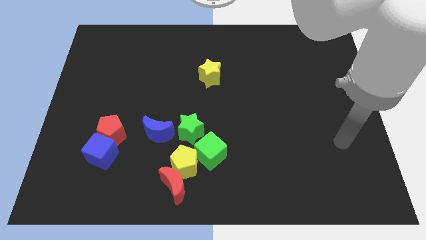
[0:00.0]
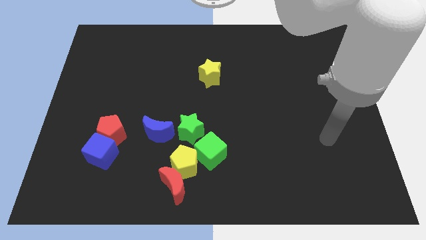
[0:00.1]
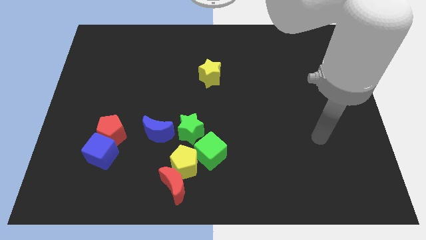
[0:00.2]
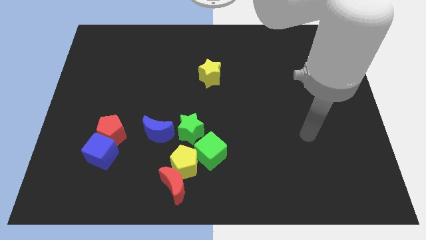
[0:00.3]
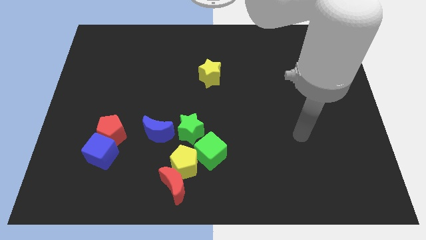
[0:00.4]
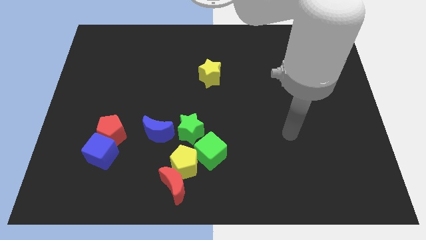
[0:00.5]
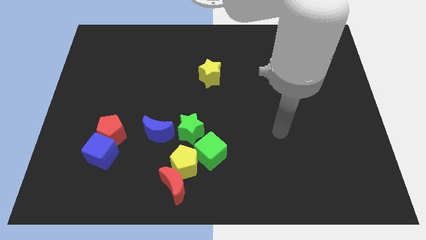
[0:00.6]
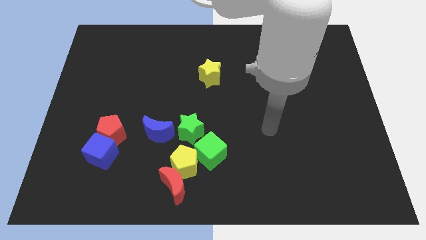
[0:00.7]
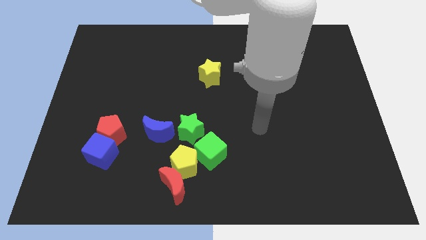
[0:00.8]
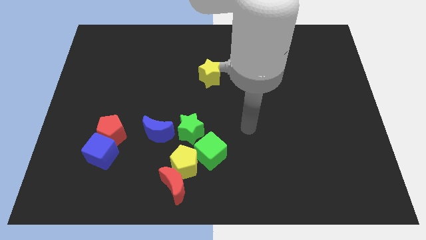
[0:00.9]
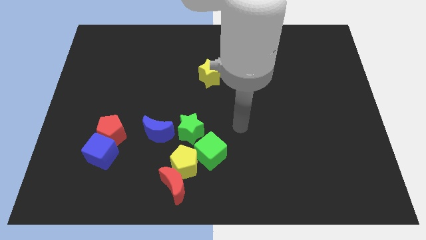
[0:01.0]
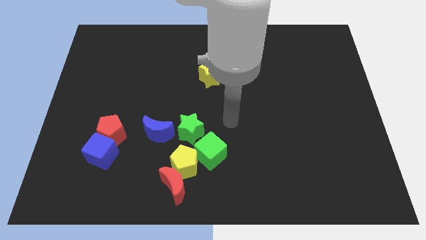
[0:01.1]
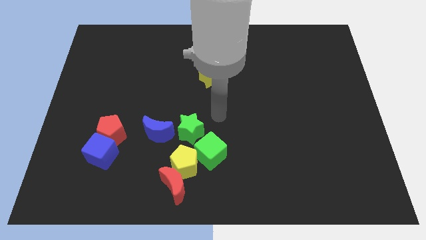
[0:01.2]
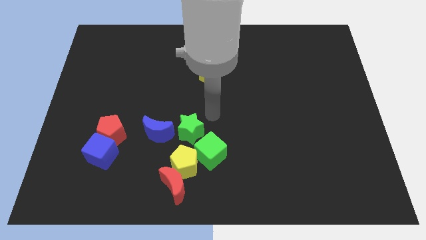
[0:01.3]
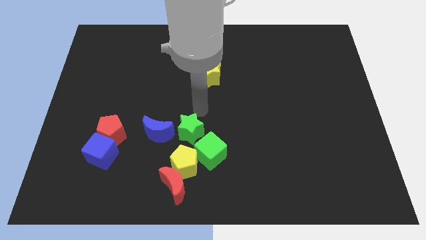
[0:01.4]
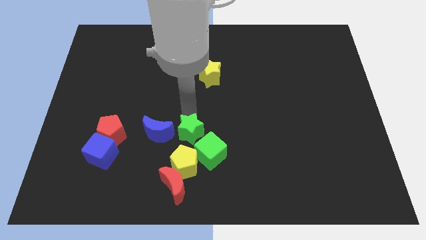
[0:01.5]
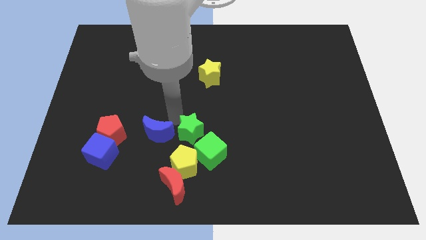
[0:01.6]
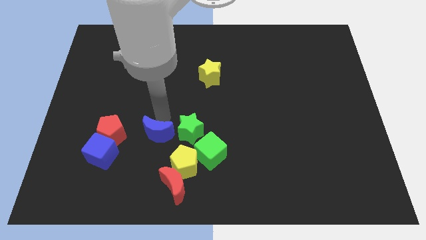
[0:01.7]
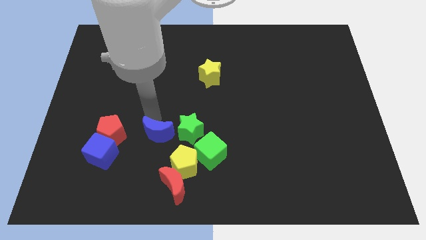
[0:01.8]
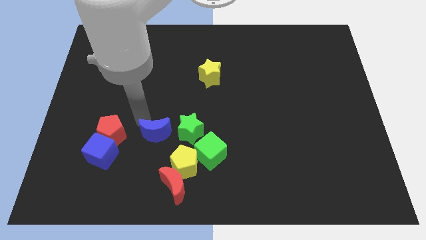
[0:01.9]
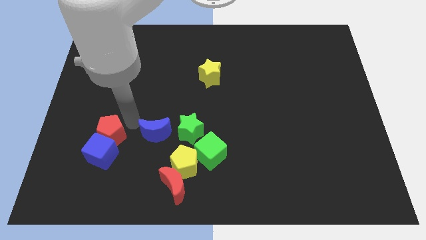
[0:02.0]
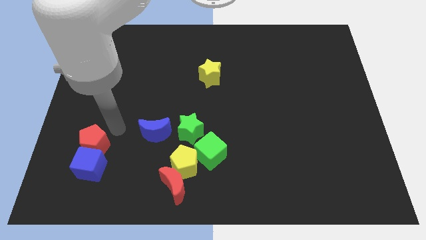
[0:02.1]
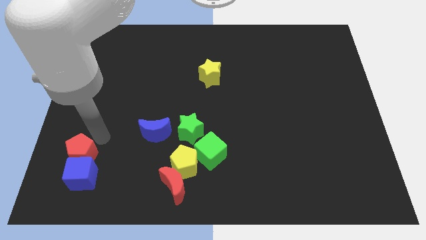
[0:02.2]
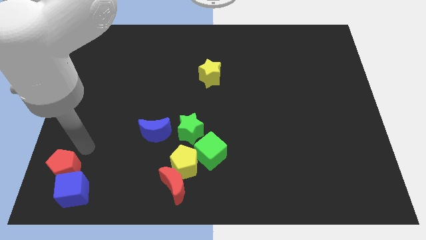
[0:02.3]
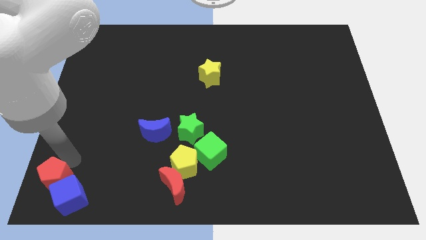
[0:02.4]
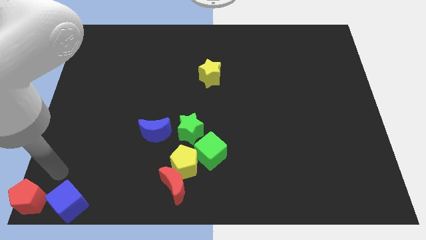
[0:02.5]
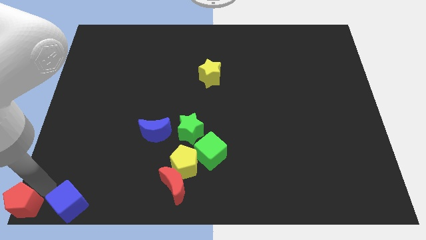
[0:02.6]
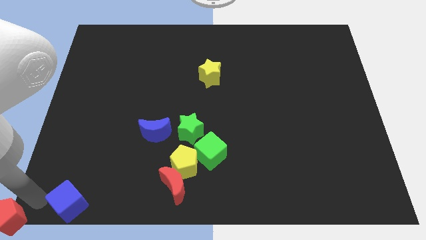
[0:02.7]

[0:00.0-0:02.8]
move the blue cube away from the red pentagon

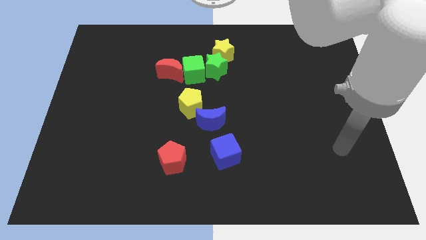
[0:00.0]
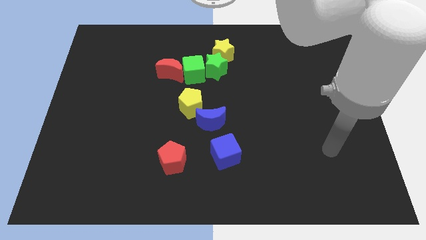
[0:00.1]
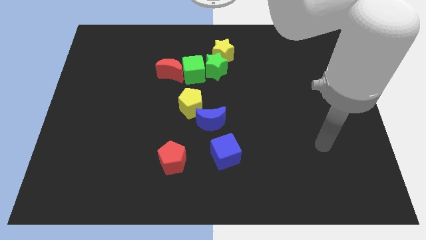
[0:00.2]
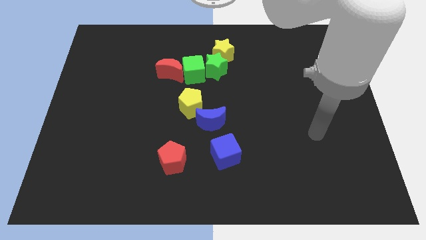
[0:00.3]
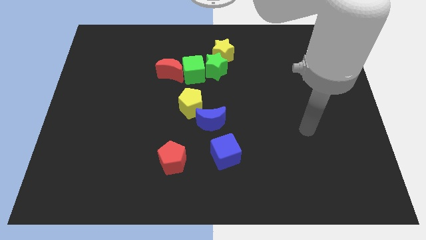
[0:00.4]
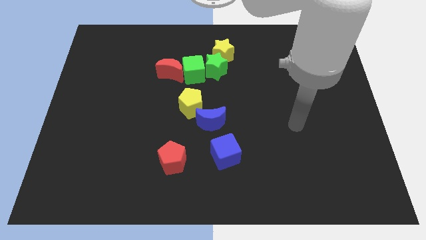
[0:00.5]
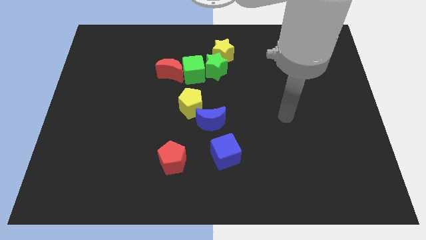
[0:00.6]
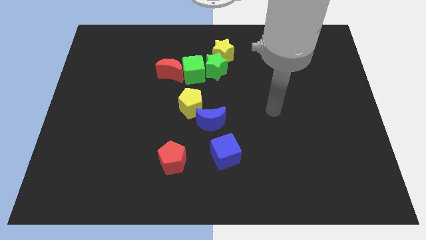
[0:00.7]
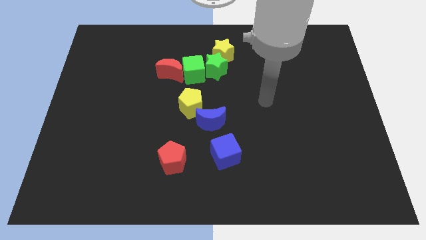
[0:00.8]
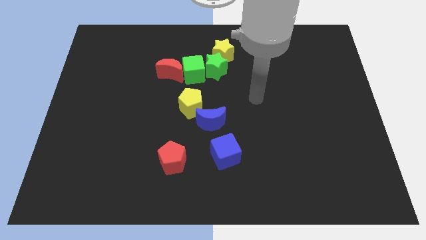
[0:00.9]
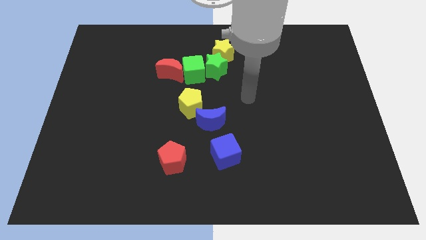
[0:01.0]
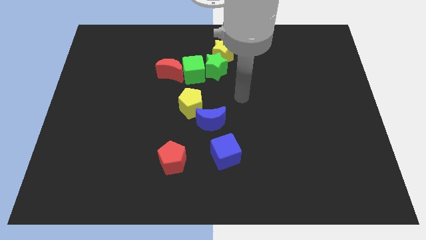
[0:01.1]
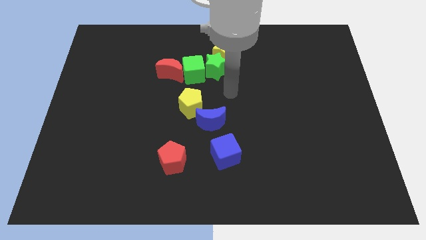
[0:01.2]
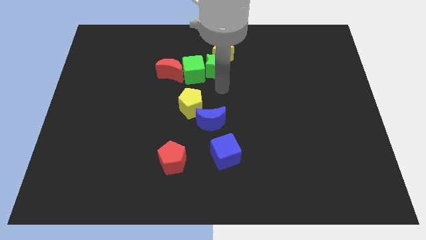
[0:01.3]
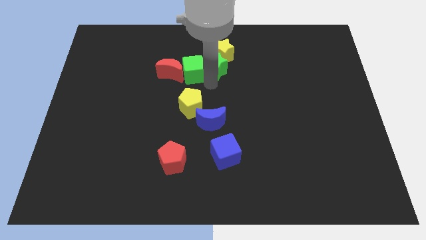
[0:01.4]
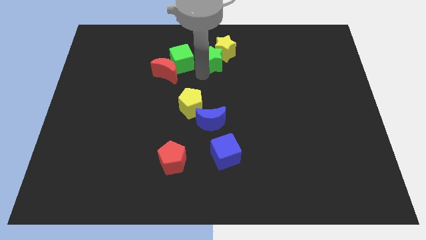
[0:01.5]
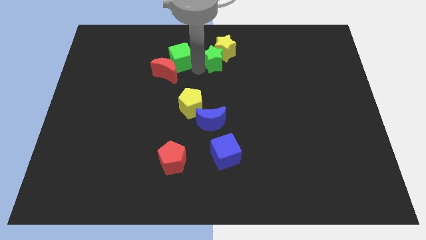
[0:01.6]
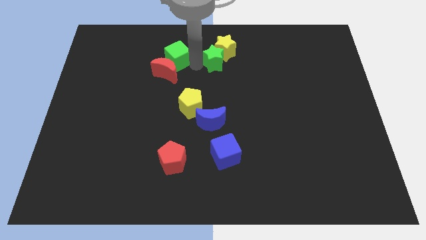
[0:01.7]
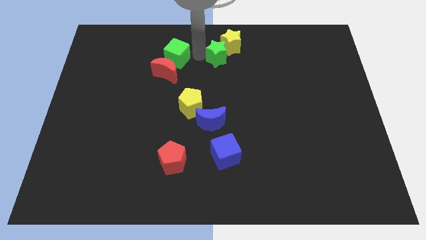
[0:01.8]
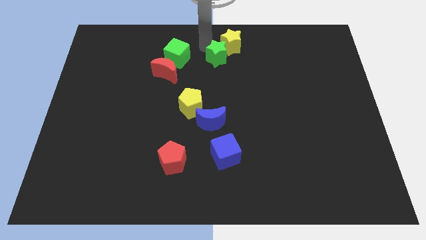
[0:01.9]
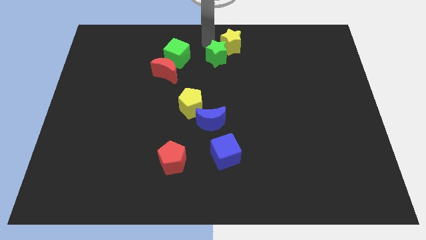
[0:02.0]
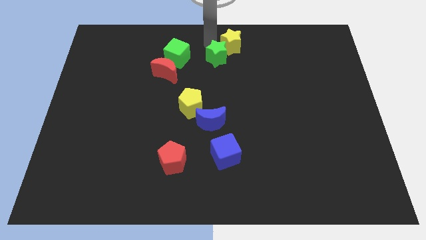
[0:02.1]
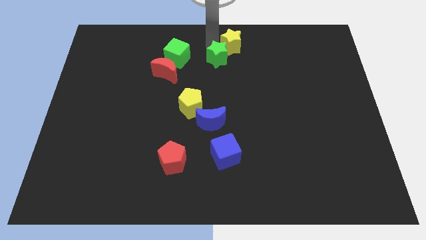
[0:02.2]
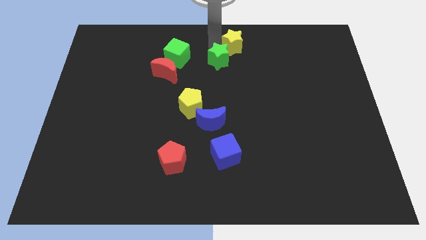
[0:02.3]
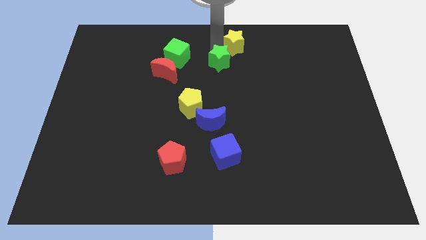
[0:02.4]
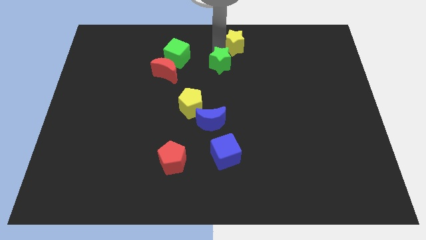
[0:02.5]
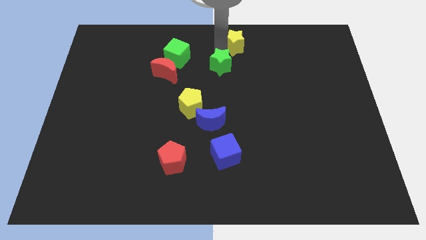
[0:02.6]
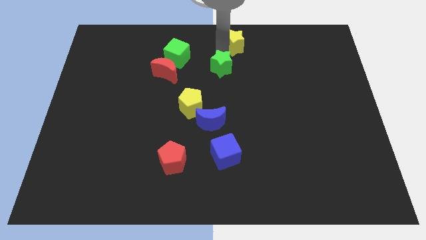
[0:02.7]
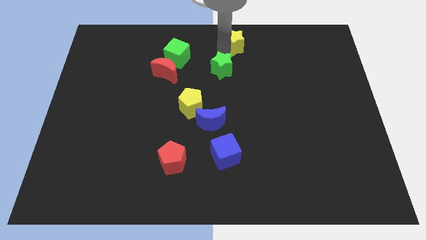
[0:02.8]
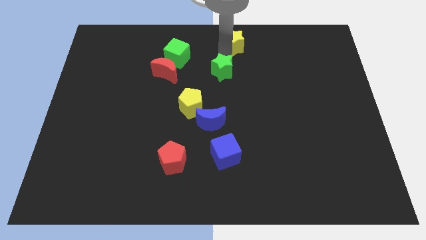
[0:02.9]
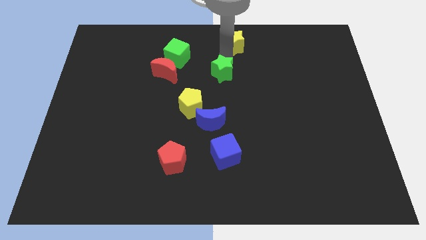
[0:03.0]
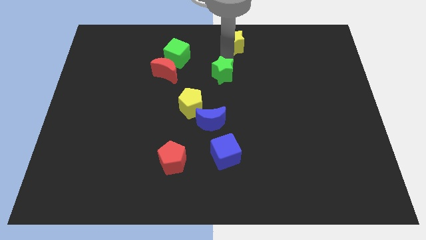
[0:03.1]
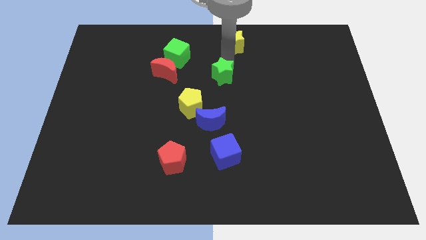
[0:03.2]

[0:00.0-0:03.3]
separate the green star from the yellow star and green cube

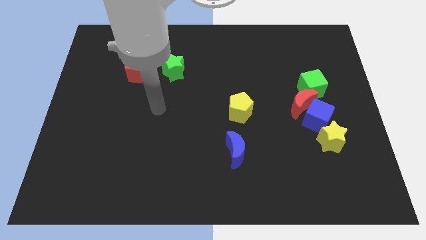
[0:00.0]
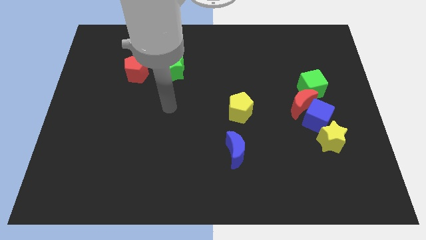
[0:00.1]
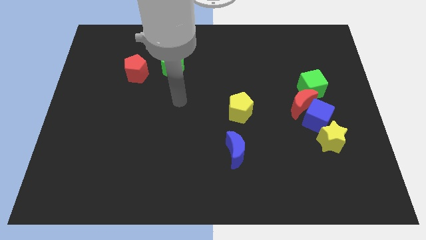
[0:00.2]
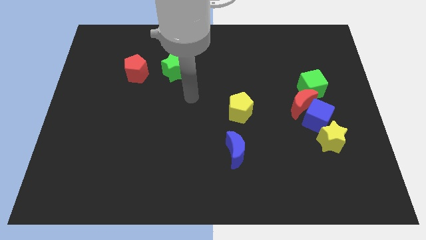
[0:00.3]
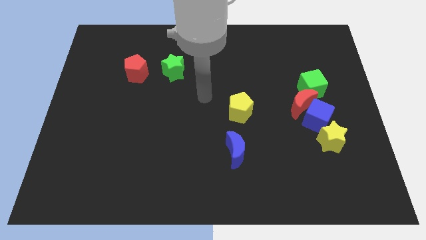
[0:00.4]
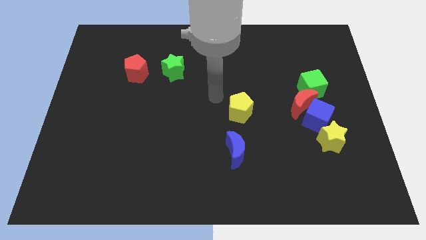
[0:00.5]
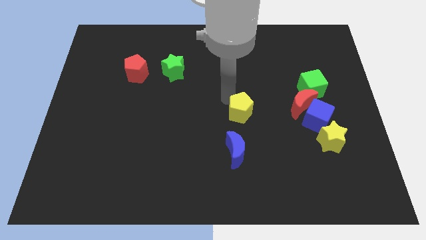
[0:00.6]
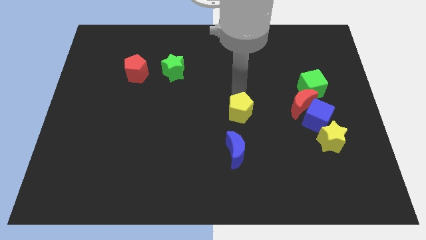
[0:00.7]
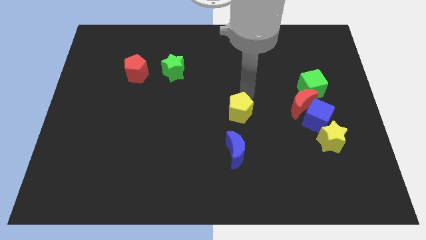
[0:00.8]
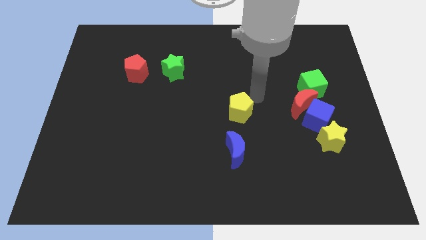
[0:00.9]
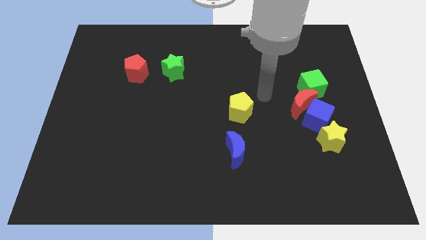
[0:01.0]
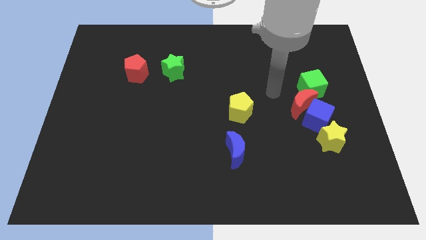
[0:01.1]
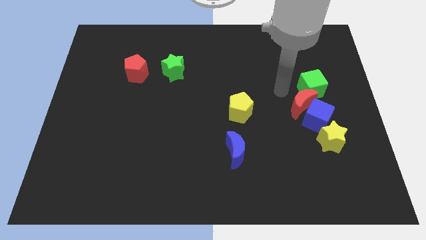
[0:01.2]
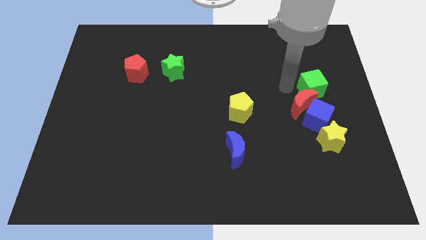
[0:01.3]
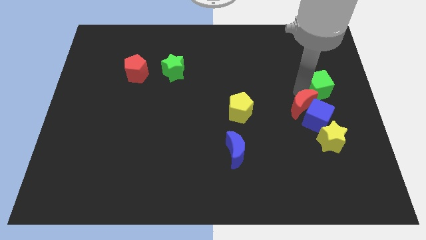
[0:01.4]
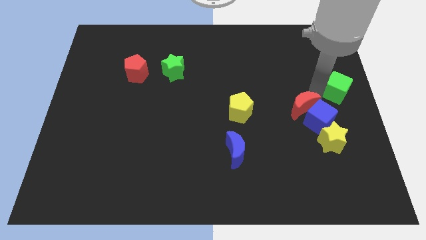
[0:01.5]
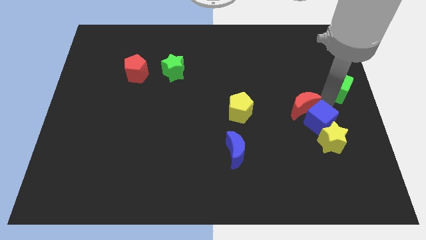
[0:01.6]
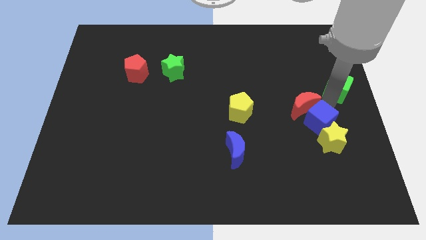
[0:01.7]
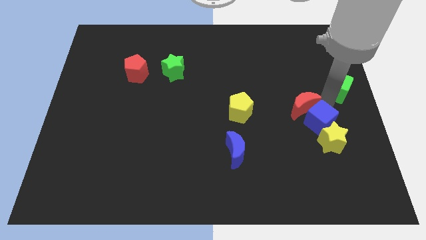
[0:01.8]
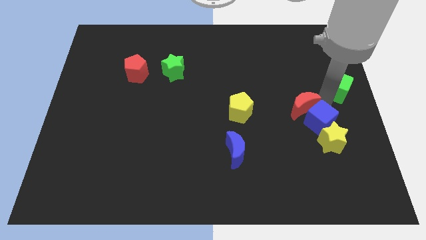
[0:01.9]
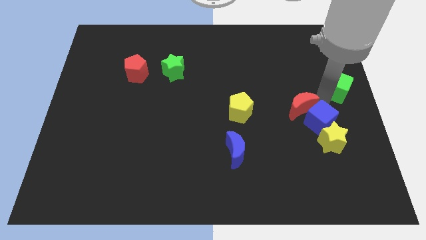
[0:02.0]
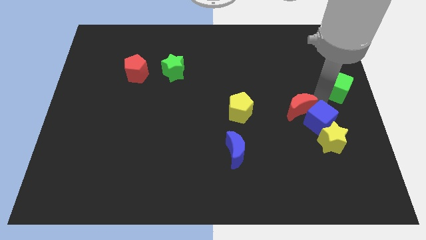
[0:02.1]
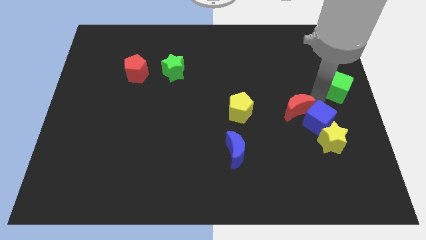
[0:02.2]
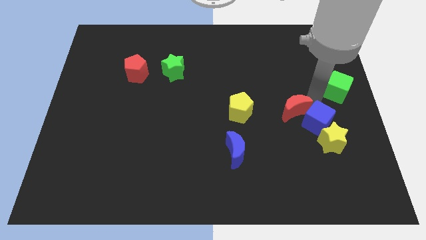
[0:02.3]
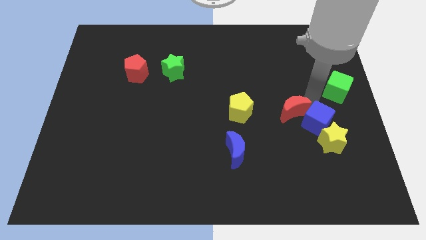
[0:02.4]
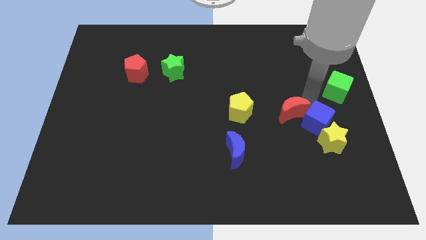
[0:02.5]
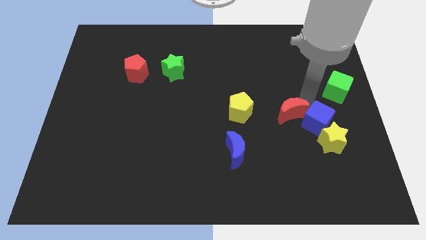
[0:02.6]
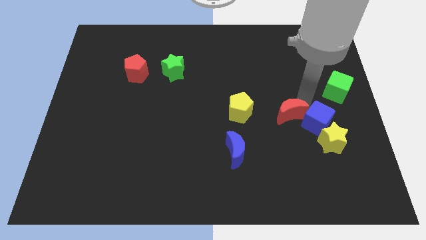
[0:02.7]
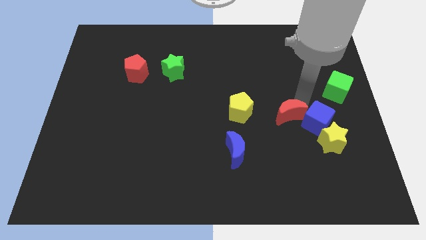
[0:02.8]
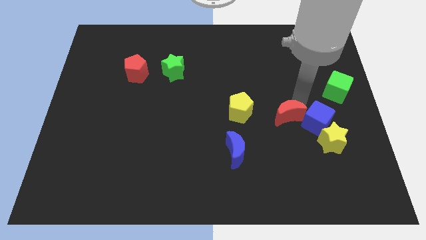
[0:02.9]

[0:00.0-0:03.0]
move the red moon away from the blue cube and green cube

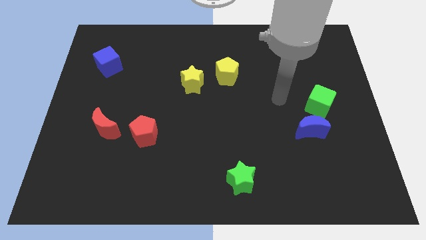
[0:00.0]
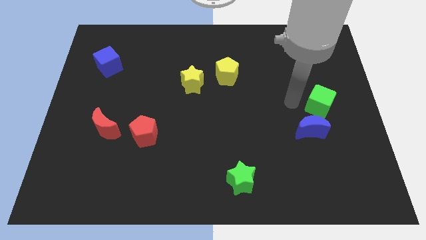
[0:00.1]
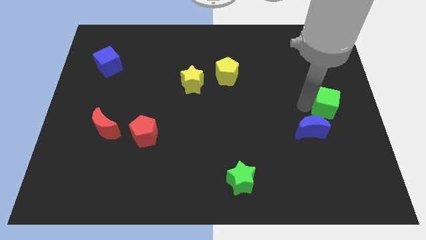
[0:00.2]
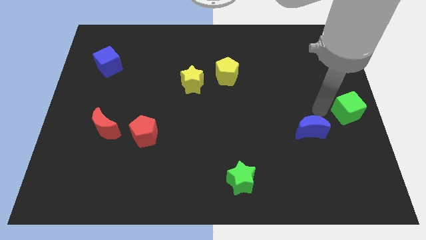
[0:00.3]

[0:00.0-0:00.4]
separate the blue moon from the green cube
